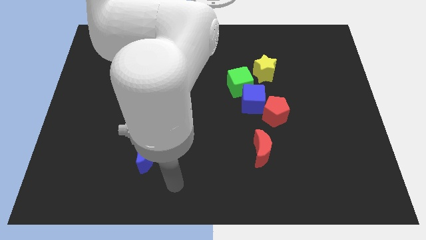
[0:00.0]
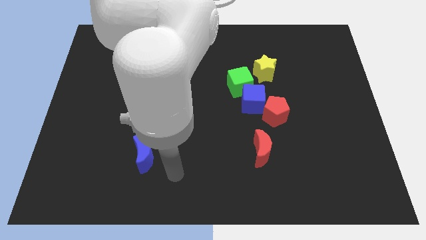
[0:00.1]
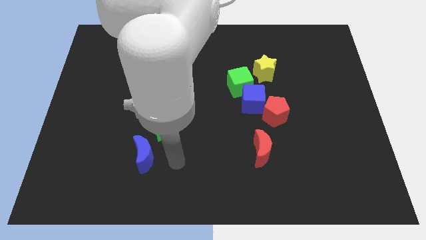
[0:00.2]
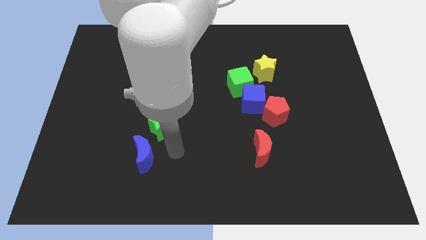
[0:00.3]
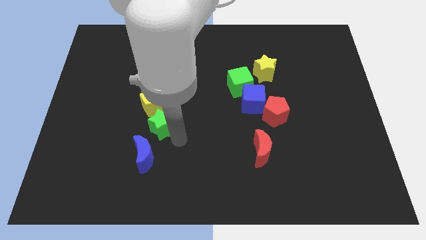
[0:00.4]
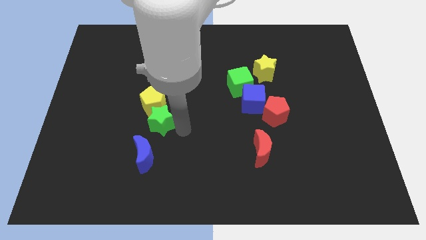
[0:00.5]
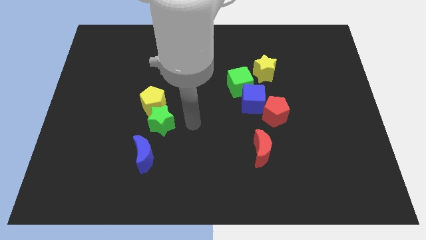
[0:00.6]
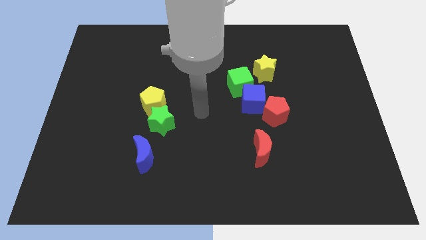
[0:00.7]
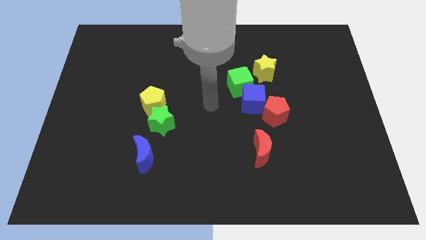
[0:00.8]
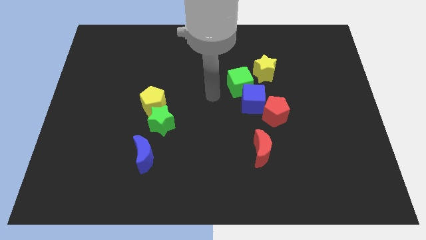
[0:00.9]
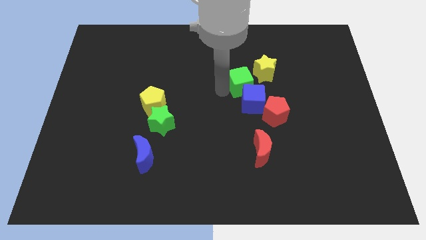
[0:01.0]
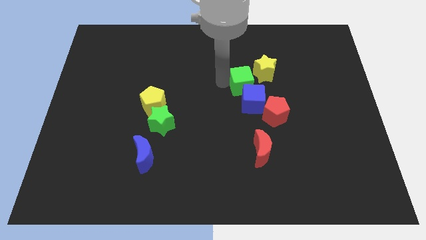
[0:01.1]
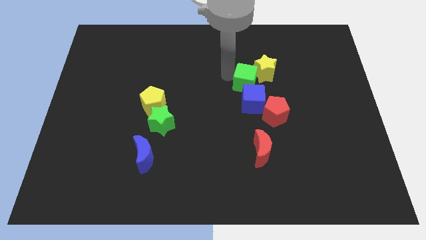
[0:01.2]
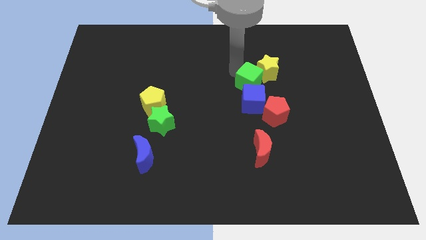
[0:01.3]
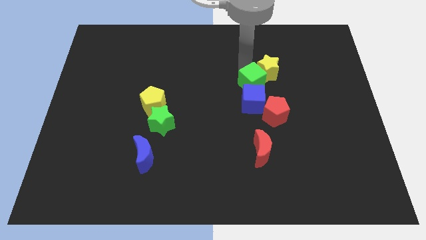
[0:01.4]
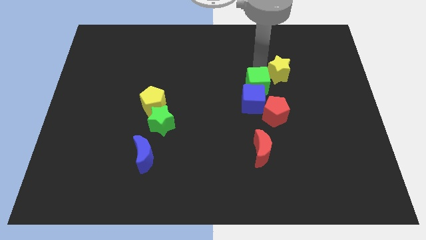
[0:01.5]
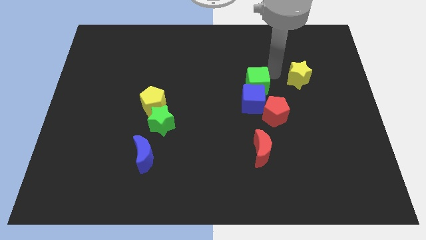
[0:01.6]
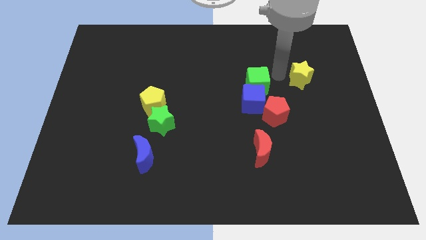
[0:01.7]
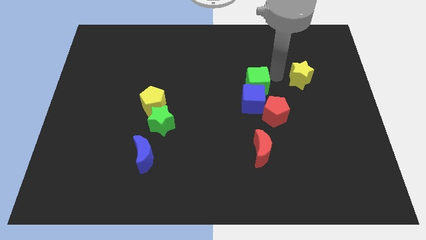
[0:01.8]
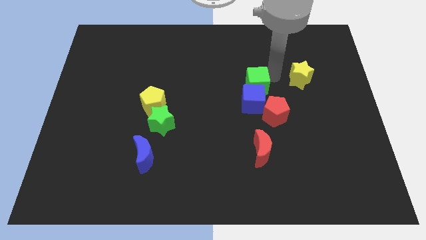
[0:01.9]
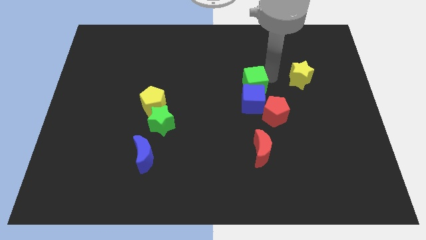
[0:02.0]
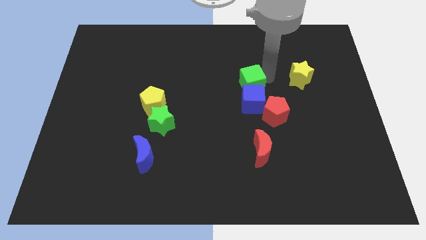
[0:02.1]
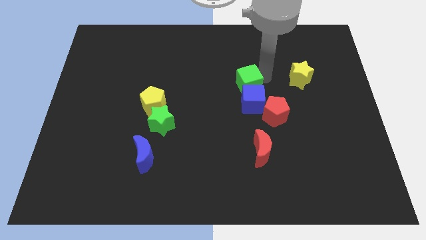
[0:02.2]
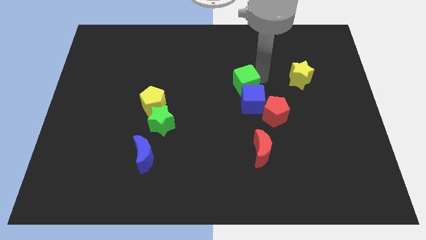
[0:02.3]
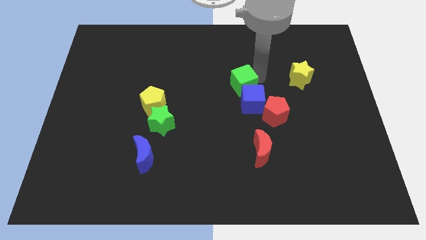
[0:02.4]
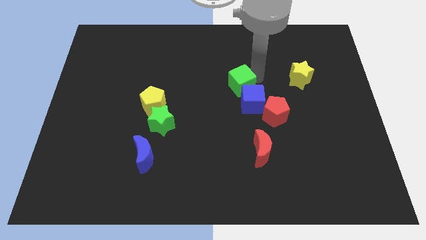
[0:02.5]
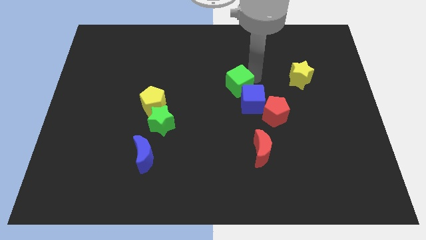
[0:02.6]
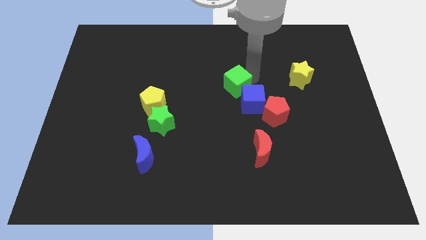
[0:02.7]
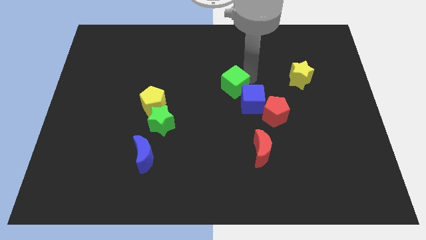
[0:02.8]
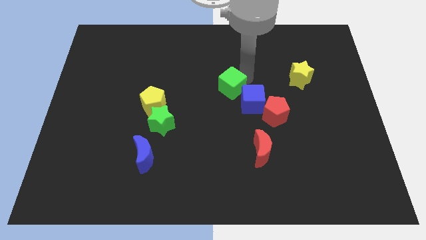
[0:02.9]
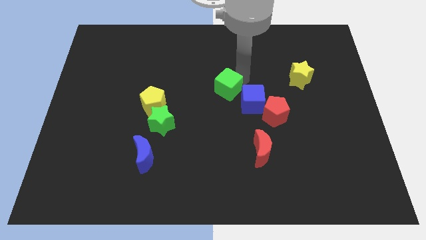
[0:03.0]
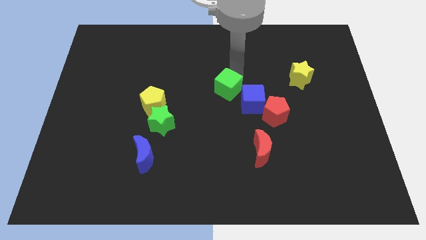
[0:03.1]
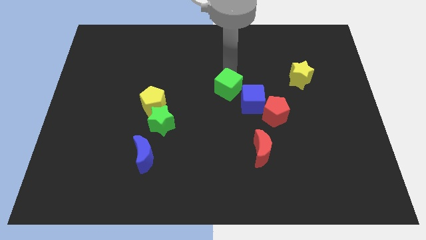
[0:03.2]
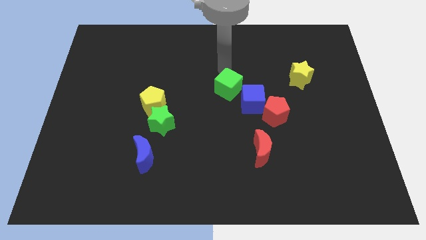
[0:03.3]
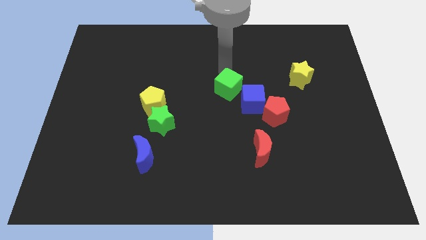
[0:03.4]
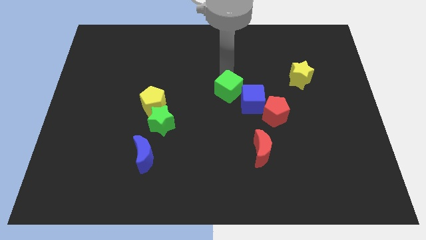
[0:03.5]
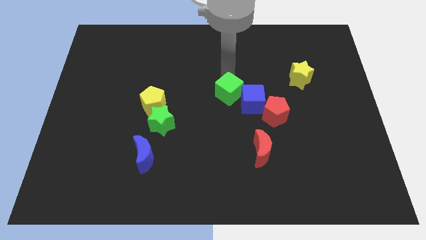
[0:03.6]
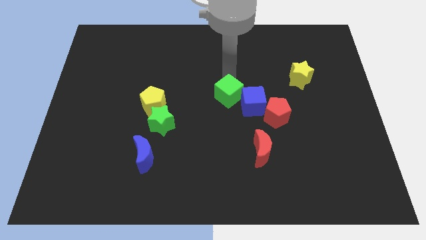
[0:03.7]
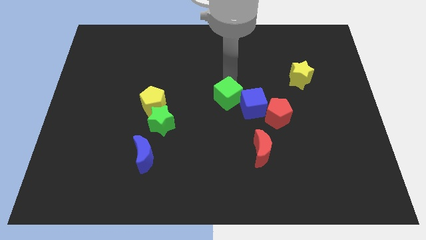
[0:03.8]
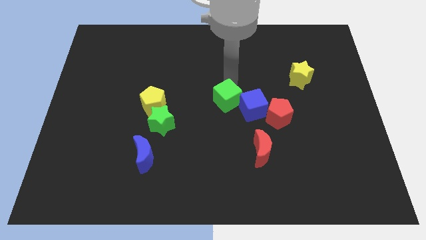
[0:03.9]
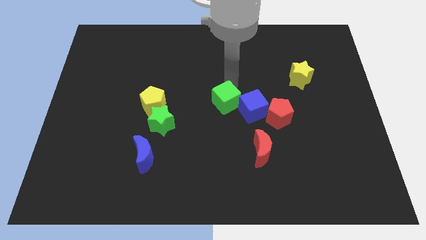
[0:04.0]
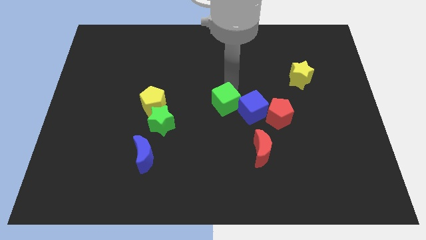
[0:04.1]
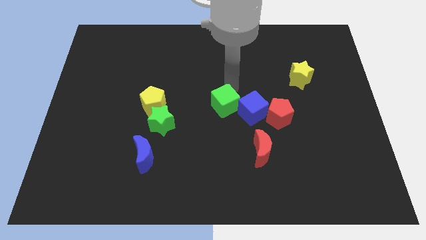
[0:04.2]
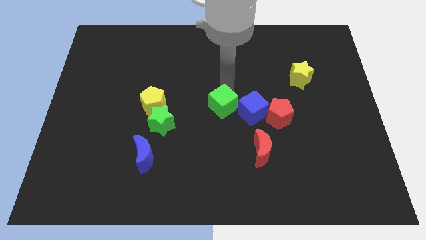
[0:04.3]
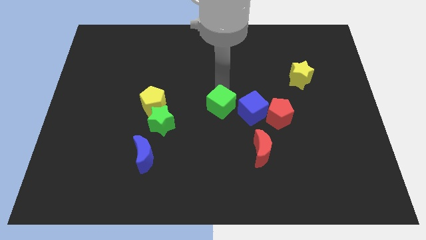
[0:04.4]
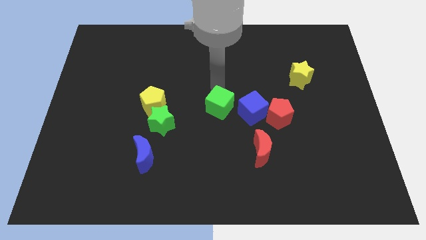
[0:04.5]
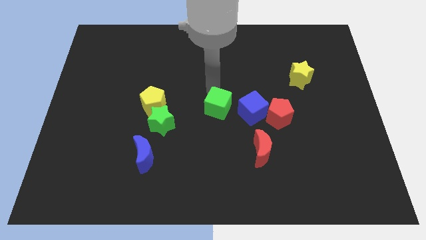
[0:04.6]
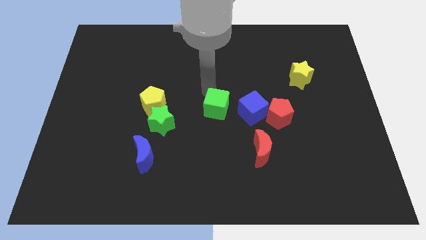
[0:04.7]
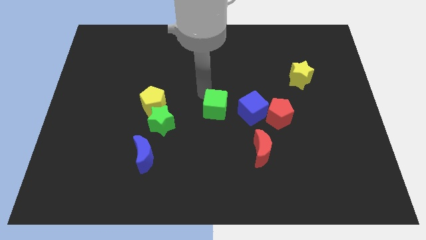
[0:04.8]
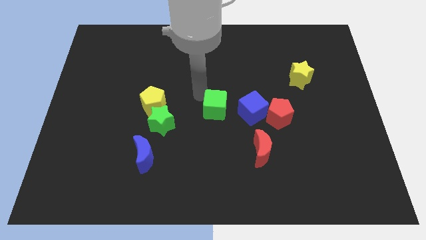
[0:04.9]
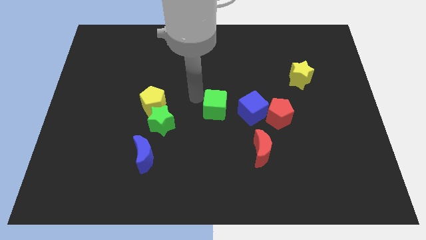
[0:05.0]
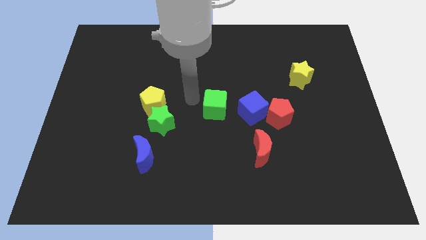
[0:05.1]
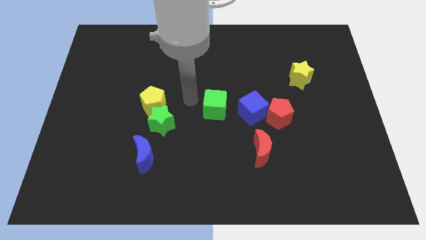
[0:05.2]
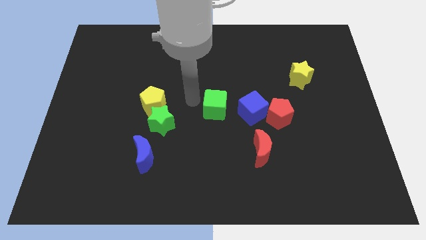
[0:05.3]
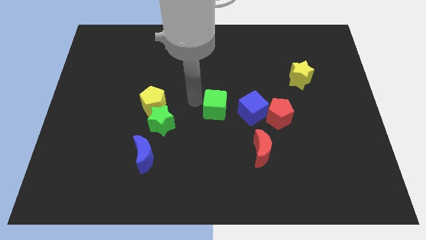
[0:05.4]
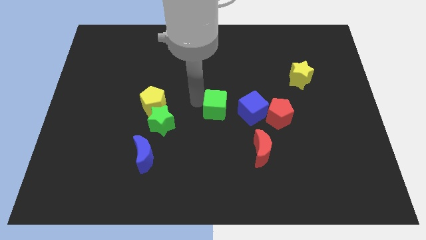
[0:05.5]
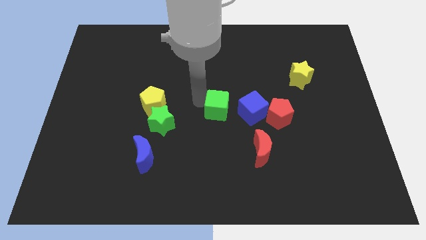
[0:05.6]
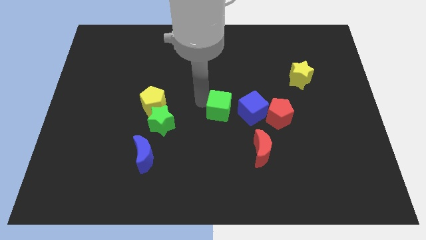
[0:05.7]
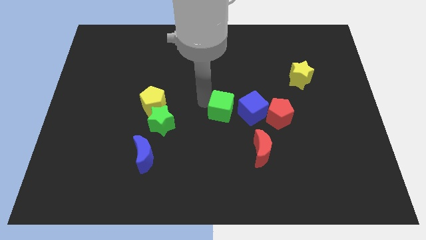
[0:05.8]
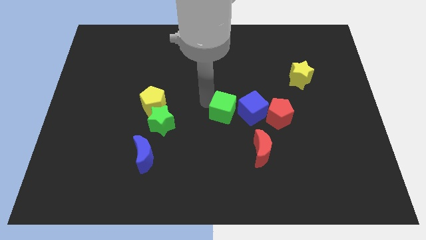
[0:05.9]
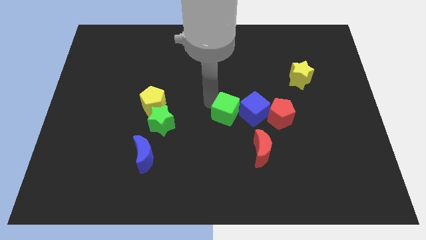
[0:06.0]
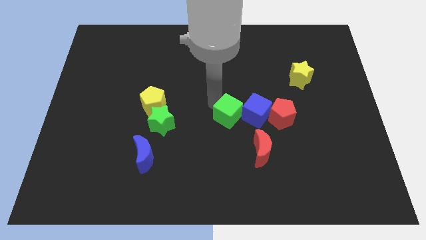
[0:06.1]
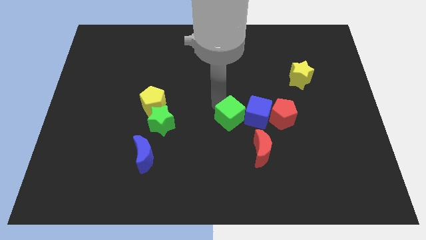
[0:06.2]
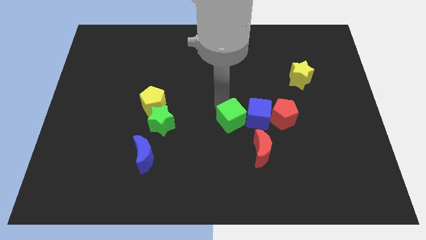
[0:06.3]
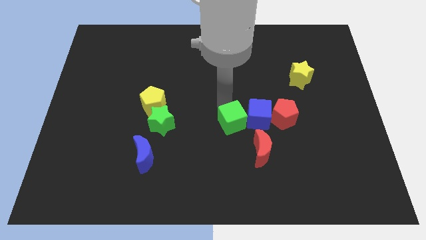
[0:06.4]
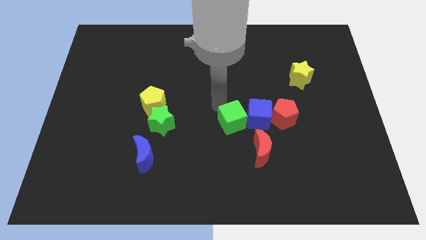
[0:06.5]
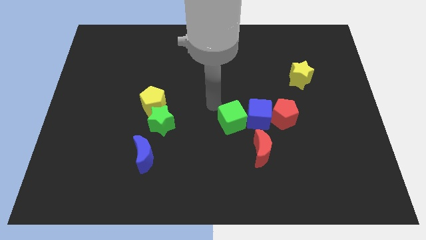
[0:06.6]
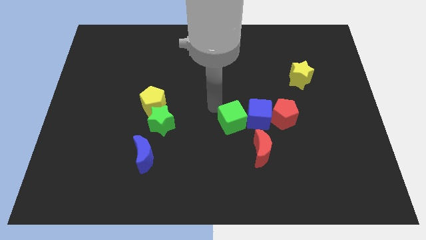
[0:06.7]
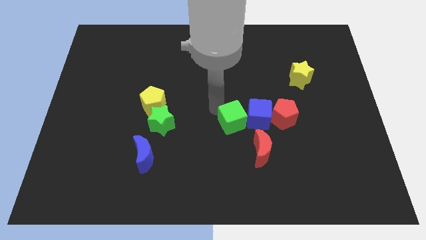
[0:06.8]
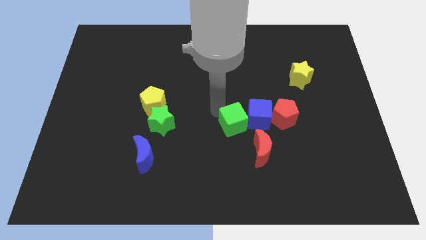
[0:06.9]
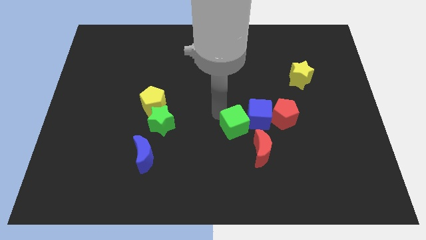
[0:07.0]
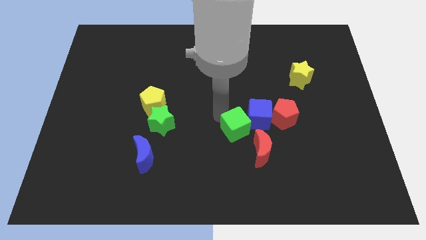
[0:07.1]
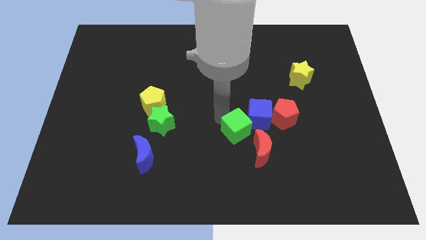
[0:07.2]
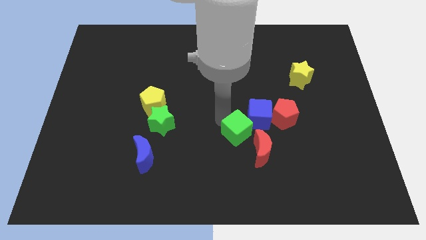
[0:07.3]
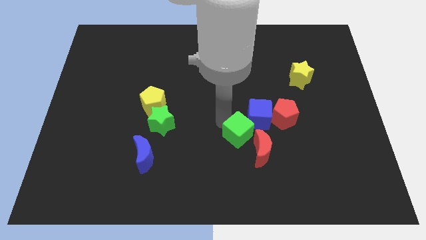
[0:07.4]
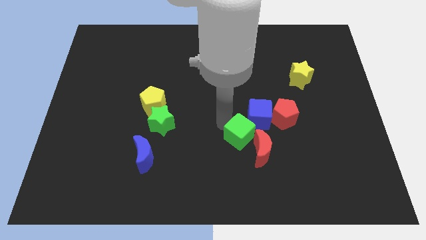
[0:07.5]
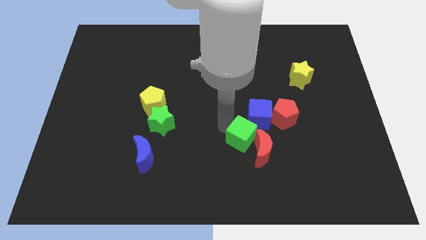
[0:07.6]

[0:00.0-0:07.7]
slide the green cube close to the red moon
